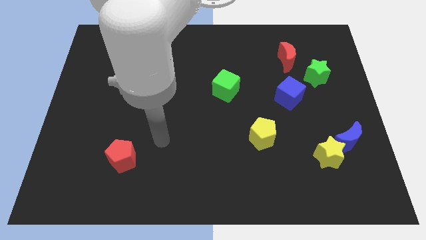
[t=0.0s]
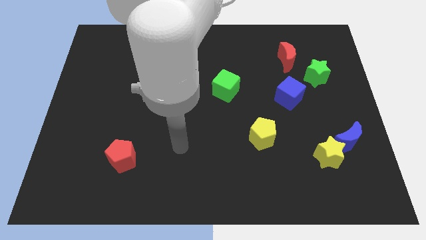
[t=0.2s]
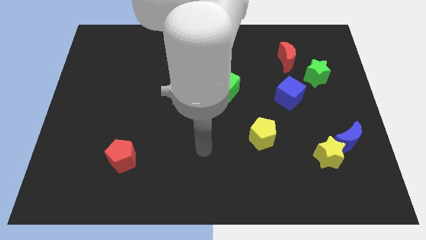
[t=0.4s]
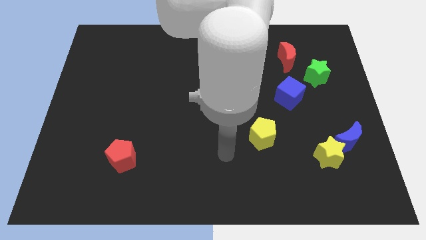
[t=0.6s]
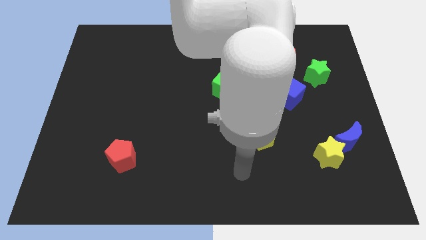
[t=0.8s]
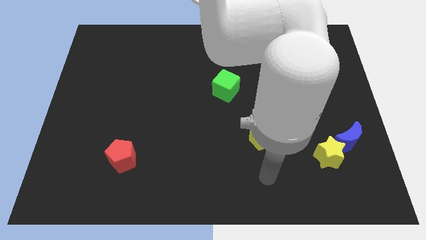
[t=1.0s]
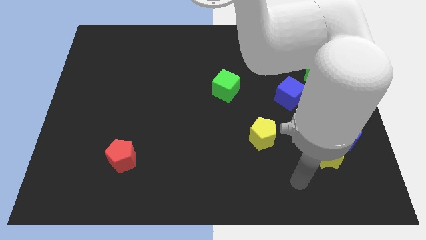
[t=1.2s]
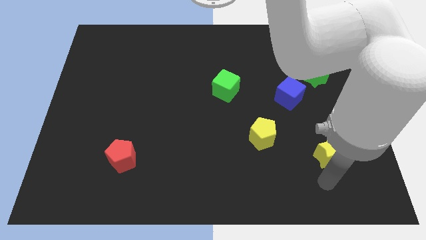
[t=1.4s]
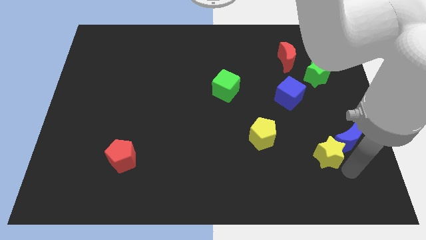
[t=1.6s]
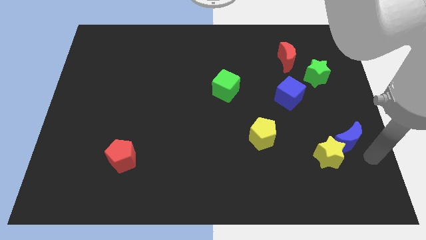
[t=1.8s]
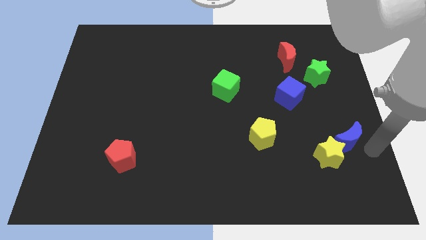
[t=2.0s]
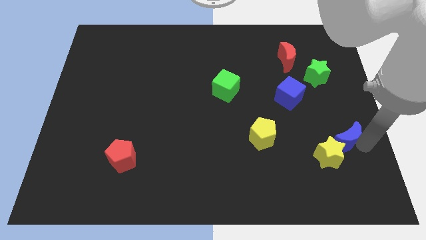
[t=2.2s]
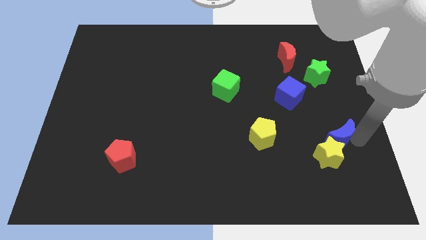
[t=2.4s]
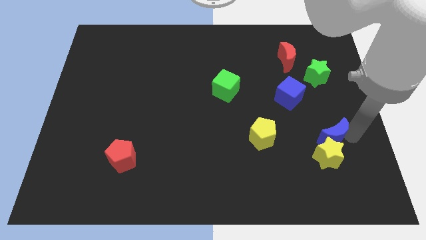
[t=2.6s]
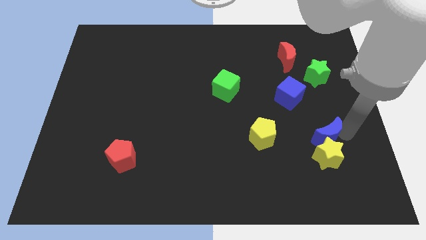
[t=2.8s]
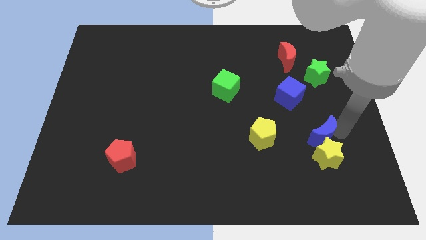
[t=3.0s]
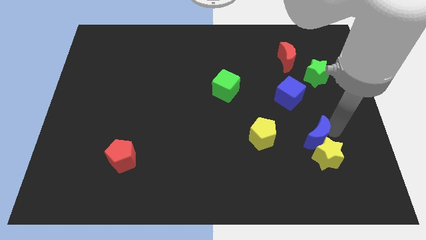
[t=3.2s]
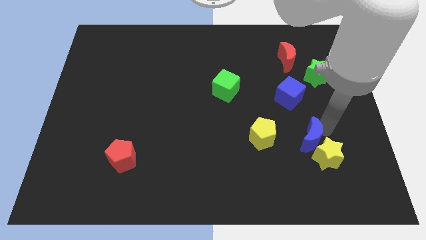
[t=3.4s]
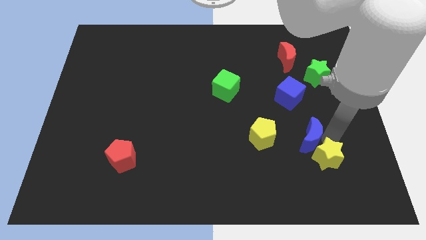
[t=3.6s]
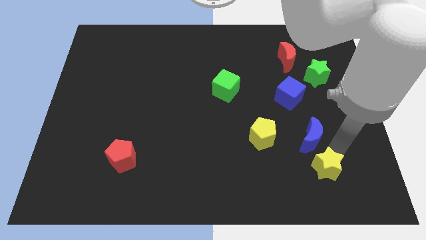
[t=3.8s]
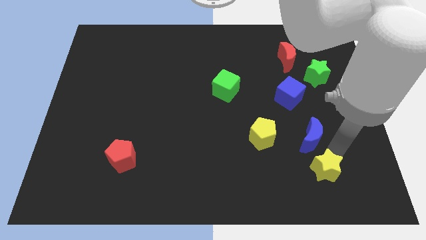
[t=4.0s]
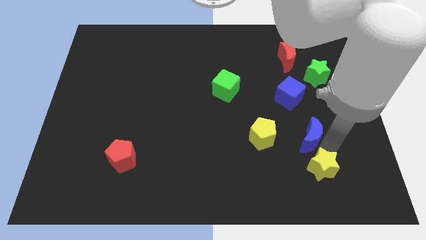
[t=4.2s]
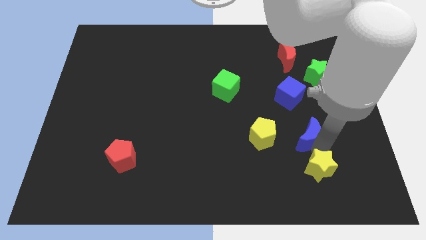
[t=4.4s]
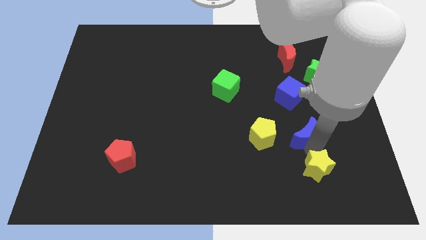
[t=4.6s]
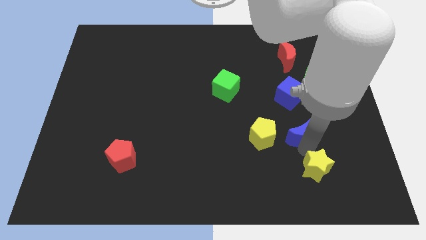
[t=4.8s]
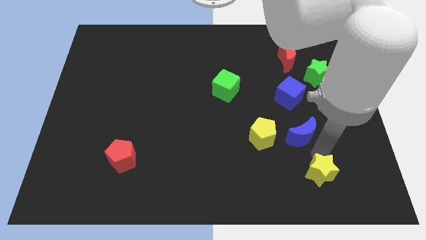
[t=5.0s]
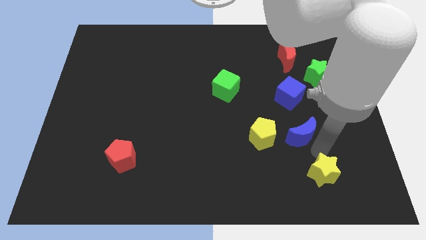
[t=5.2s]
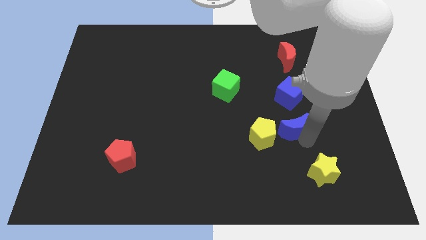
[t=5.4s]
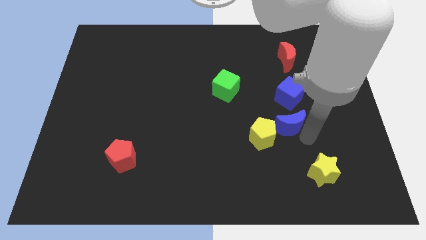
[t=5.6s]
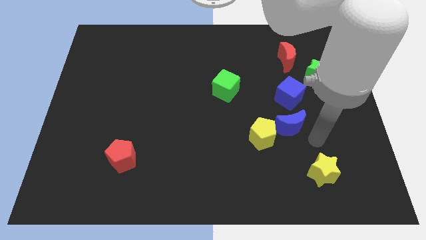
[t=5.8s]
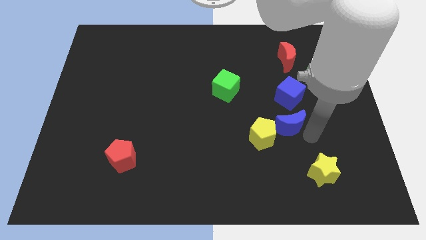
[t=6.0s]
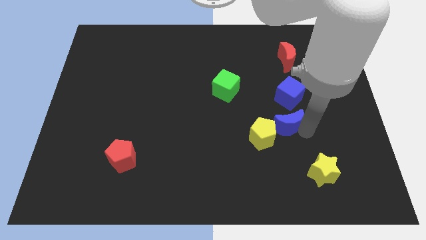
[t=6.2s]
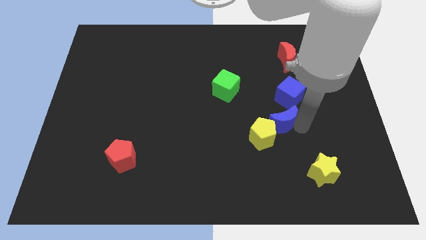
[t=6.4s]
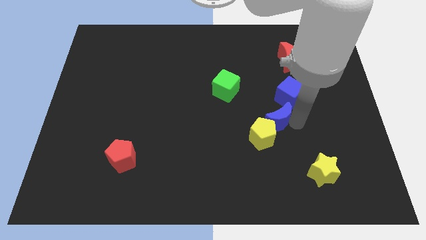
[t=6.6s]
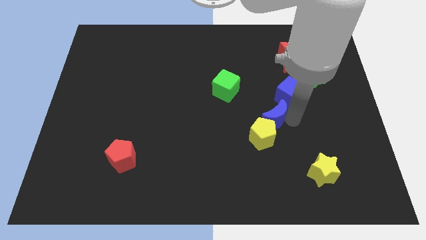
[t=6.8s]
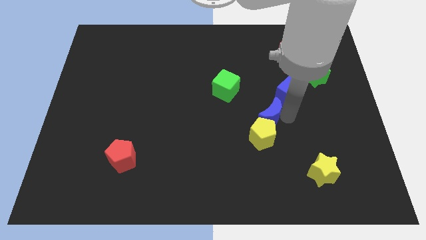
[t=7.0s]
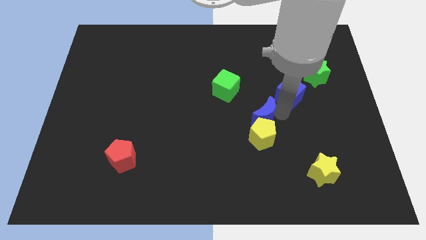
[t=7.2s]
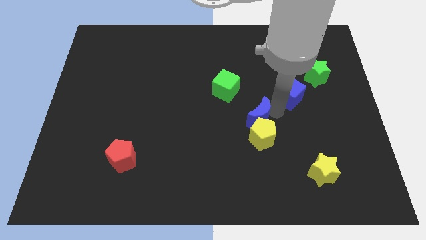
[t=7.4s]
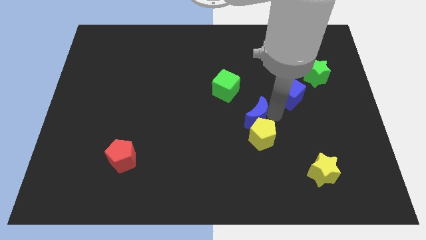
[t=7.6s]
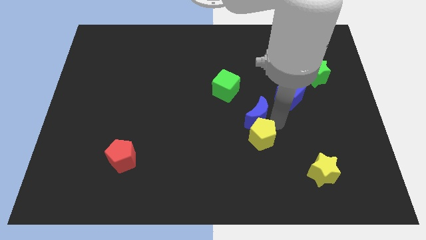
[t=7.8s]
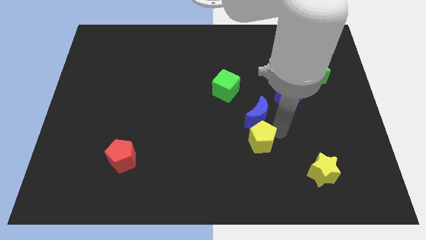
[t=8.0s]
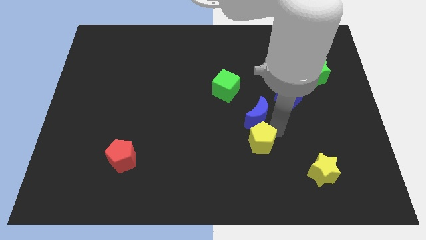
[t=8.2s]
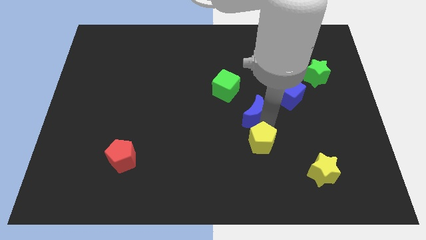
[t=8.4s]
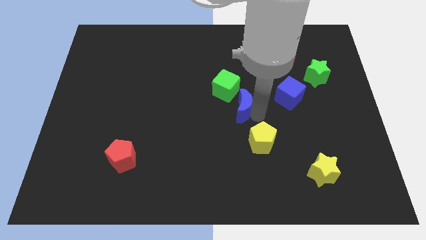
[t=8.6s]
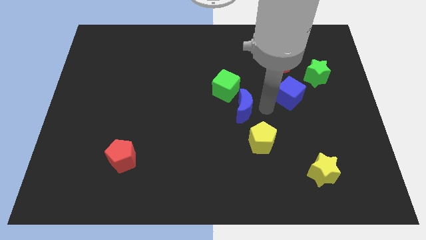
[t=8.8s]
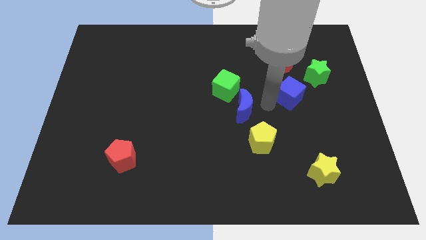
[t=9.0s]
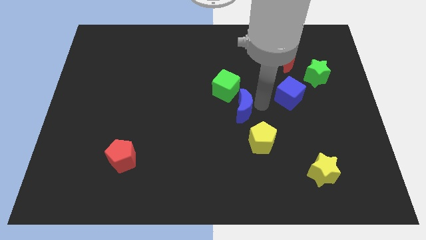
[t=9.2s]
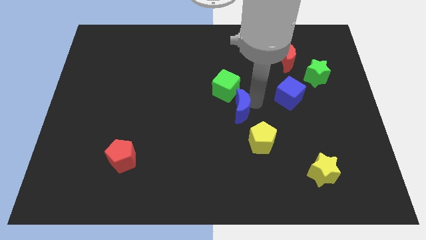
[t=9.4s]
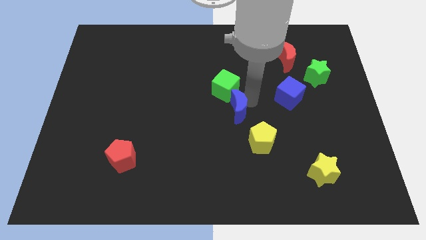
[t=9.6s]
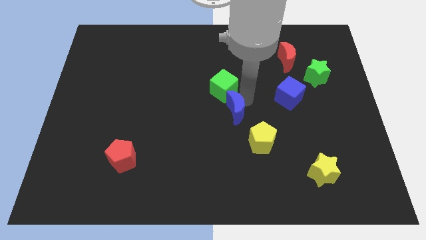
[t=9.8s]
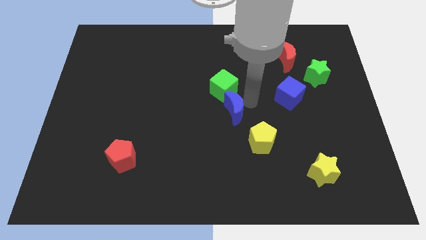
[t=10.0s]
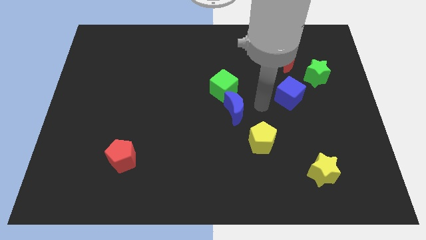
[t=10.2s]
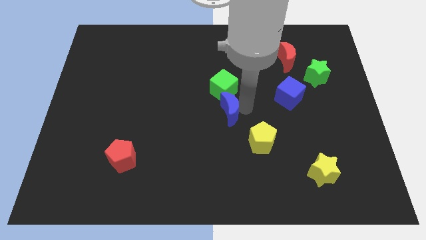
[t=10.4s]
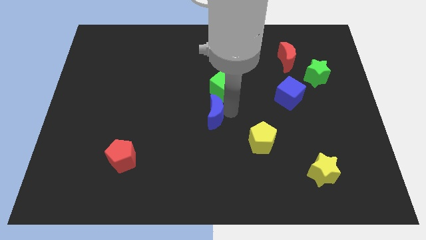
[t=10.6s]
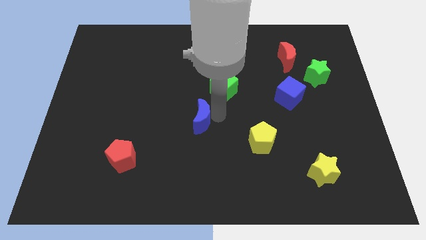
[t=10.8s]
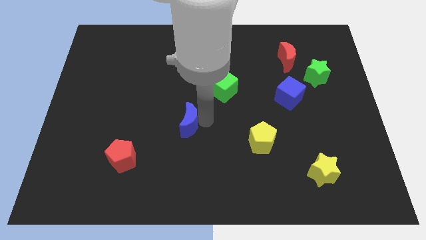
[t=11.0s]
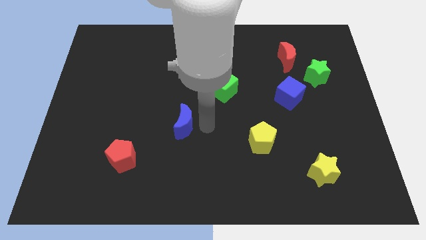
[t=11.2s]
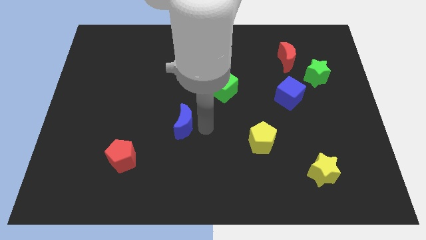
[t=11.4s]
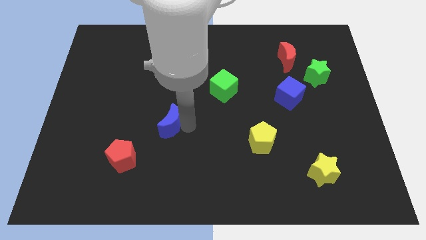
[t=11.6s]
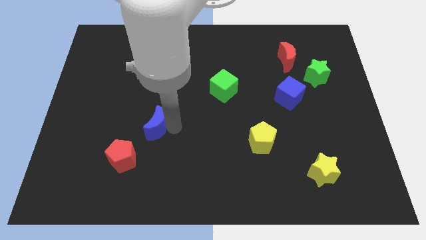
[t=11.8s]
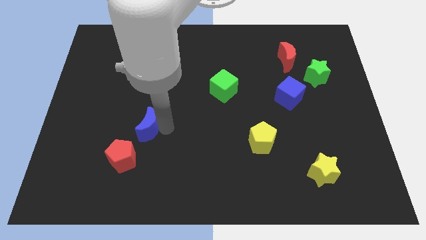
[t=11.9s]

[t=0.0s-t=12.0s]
push the blue moon above the red pentagon

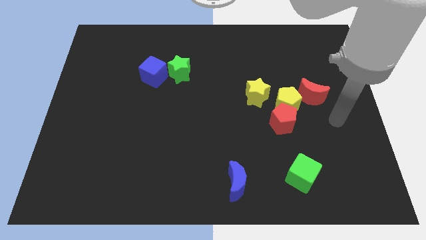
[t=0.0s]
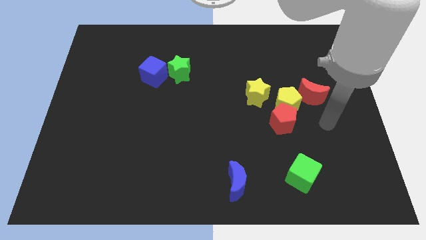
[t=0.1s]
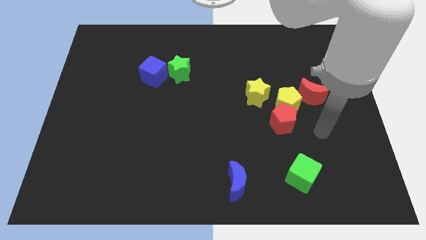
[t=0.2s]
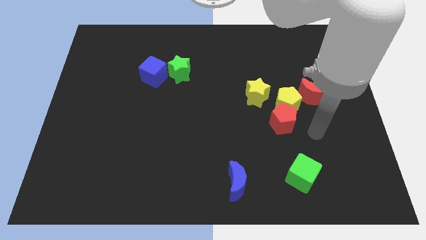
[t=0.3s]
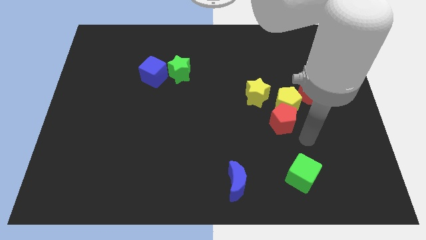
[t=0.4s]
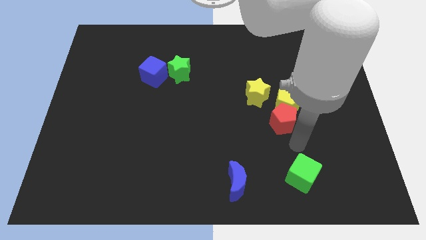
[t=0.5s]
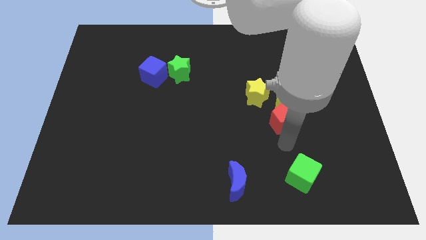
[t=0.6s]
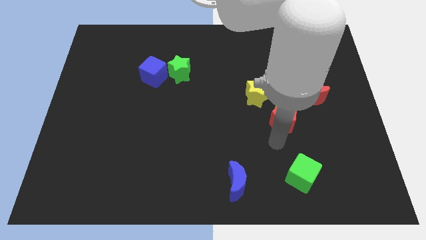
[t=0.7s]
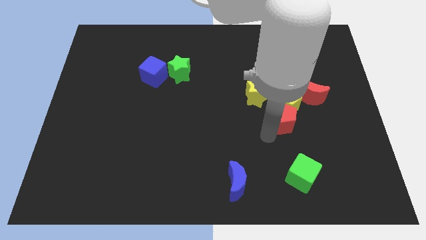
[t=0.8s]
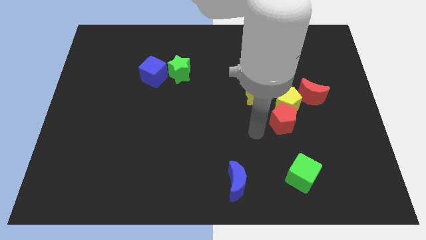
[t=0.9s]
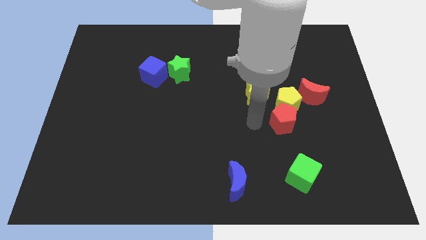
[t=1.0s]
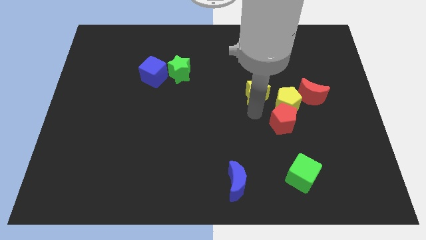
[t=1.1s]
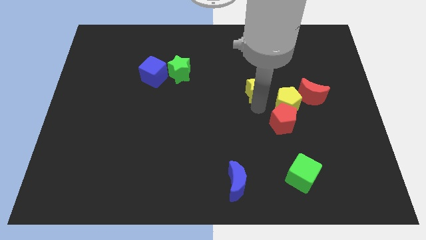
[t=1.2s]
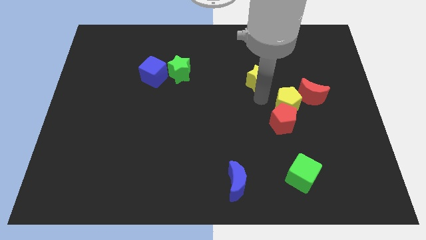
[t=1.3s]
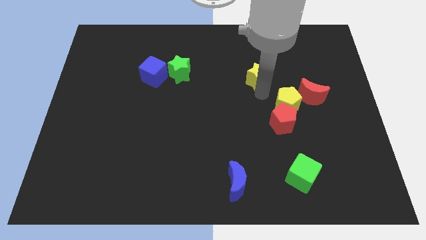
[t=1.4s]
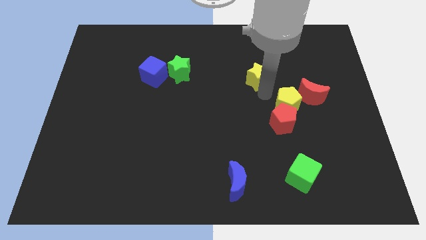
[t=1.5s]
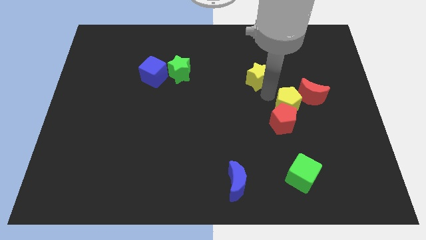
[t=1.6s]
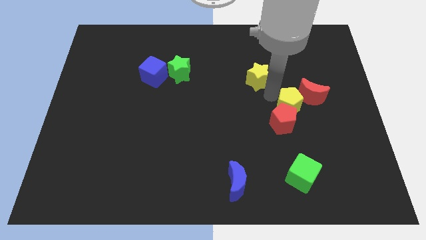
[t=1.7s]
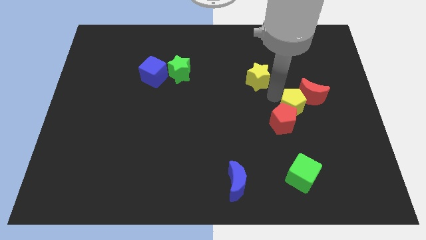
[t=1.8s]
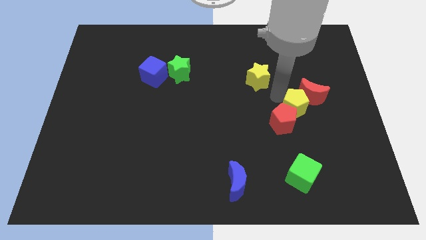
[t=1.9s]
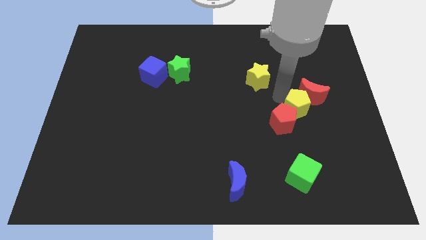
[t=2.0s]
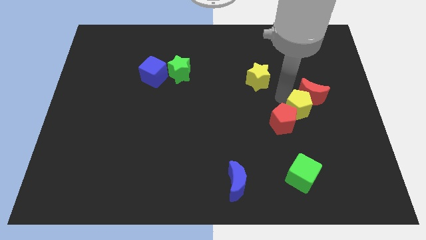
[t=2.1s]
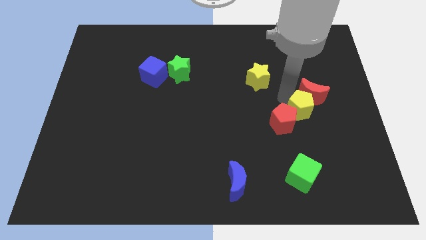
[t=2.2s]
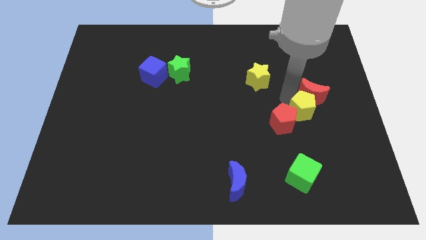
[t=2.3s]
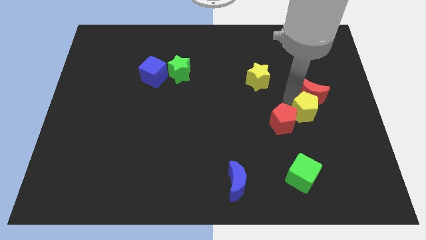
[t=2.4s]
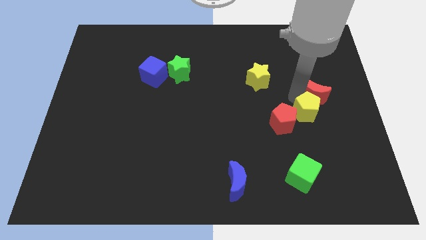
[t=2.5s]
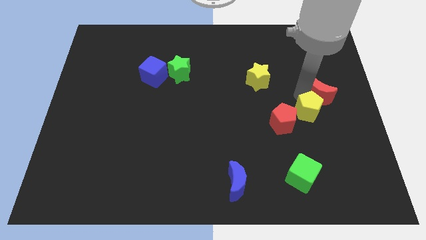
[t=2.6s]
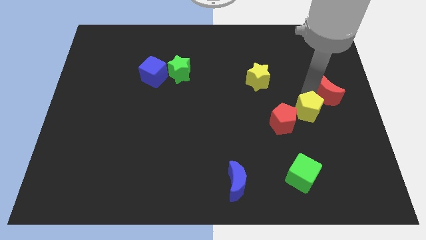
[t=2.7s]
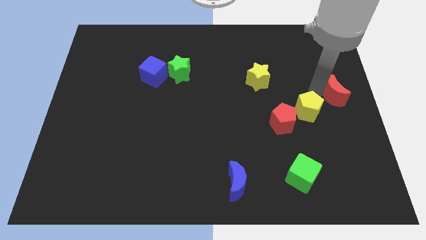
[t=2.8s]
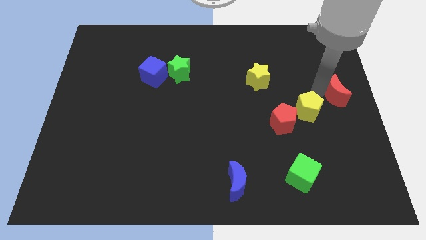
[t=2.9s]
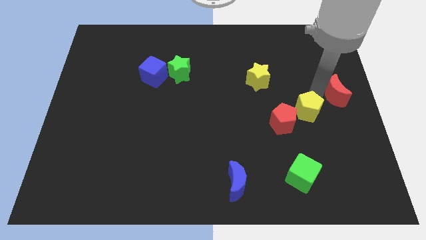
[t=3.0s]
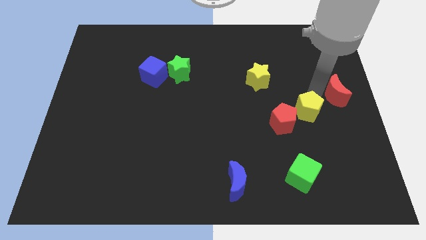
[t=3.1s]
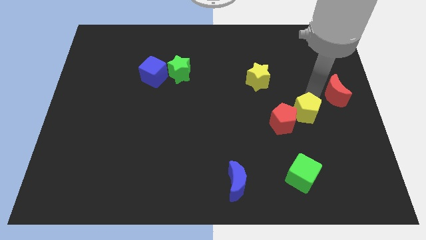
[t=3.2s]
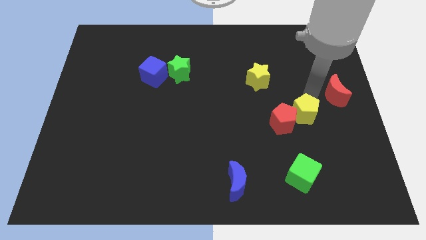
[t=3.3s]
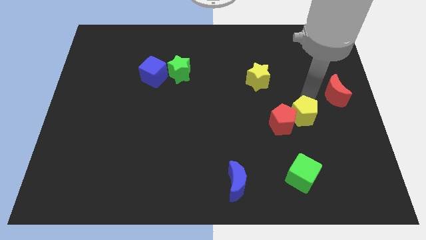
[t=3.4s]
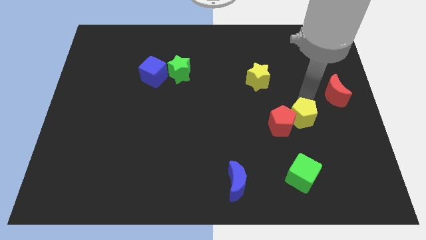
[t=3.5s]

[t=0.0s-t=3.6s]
slide the yellow pentagon to the top side of the green cube
